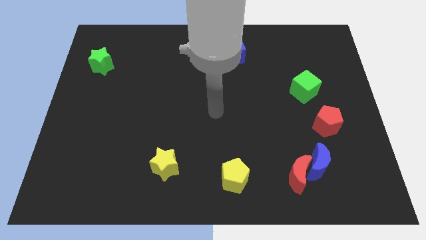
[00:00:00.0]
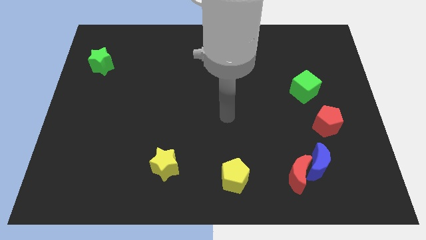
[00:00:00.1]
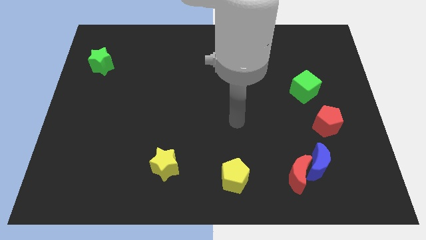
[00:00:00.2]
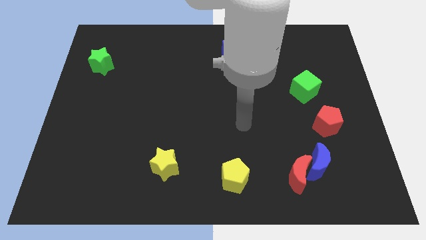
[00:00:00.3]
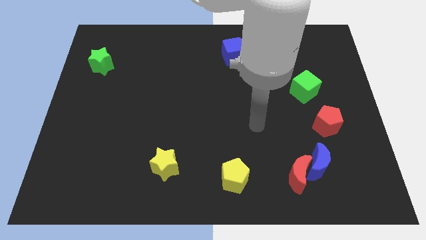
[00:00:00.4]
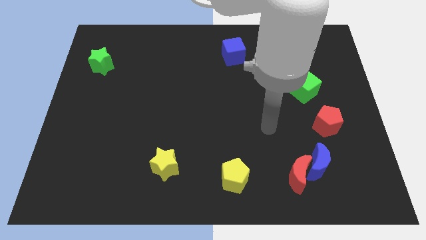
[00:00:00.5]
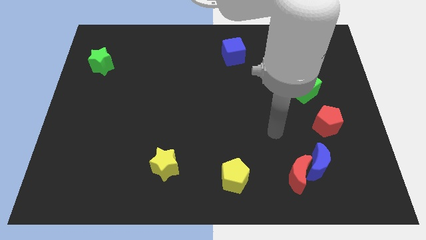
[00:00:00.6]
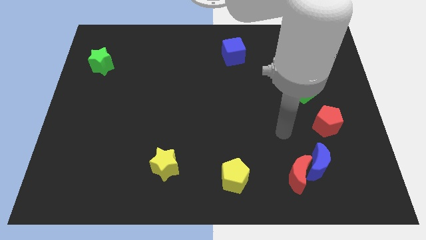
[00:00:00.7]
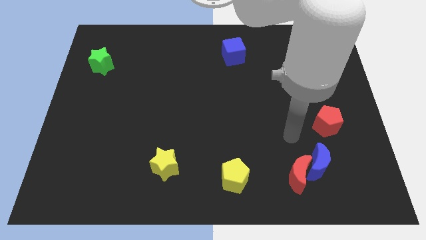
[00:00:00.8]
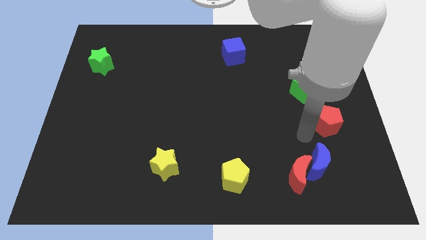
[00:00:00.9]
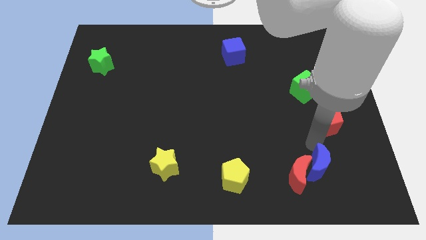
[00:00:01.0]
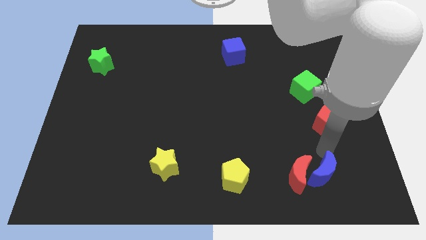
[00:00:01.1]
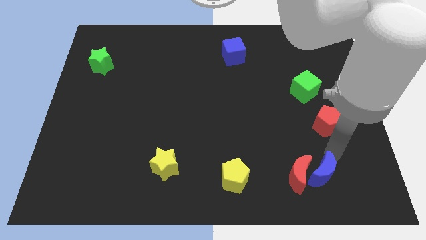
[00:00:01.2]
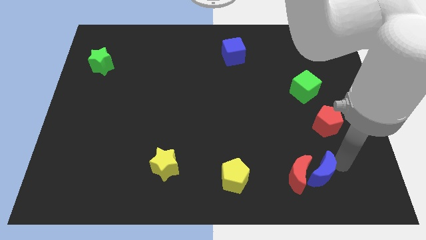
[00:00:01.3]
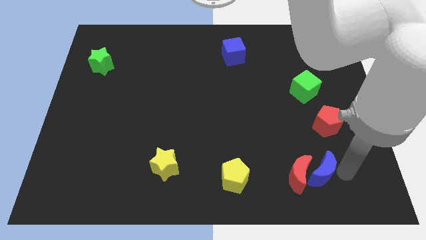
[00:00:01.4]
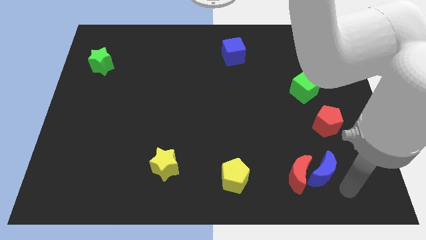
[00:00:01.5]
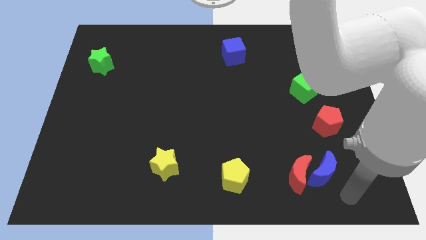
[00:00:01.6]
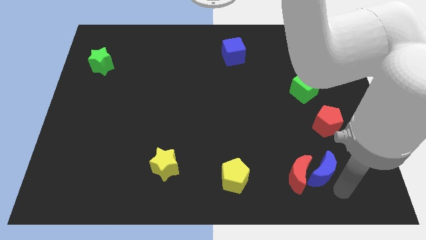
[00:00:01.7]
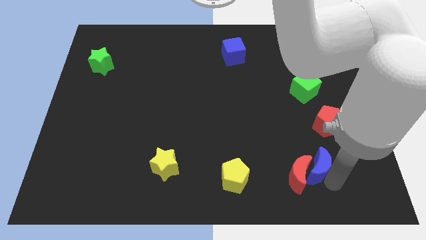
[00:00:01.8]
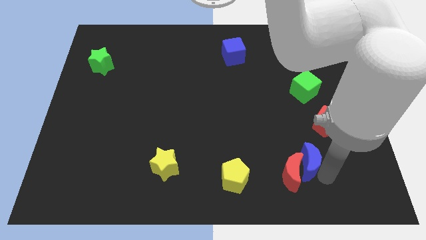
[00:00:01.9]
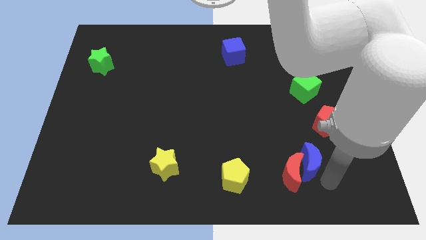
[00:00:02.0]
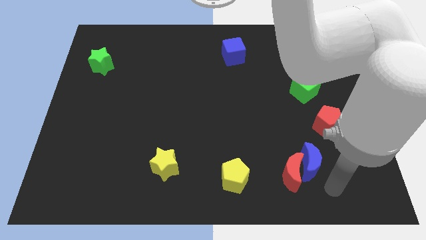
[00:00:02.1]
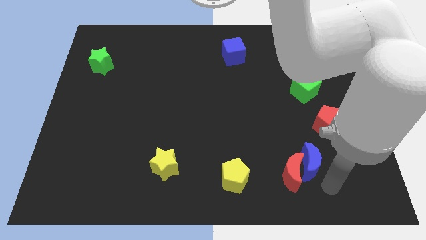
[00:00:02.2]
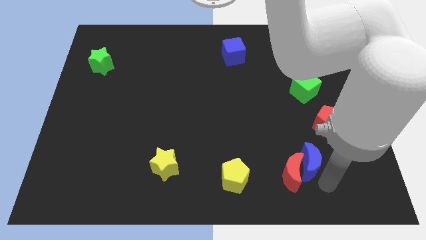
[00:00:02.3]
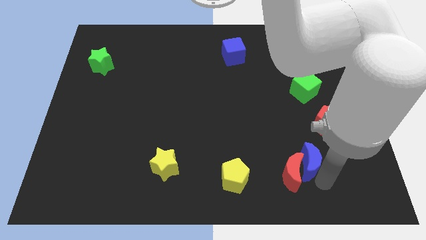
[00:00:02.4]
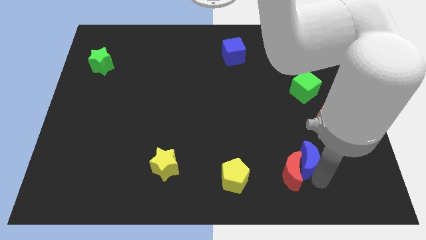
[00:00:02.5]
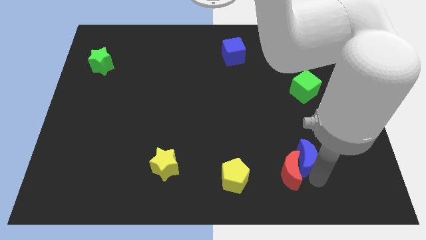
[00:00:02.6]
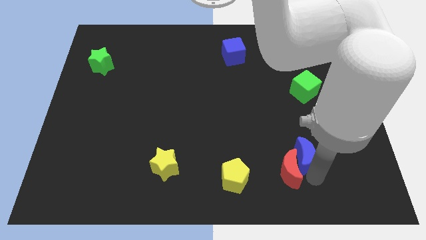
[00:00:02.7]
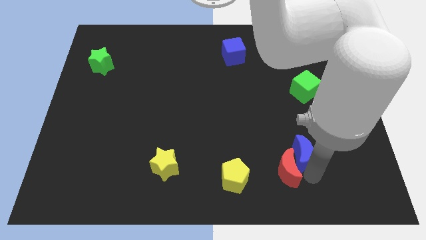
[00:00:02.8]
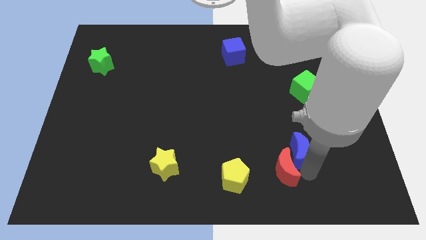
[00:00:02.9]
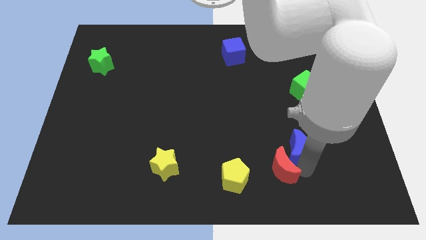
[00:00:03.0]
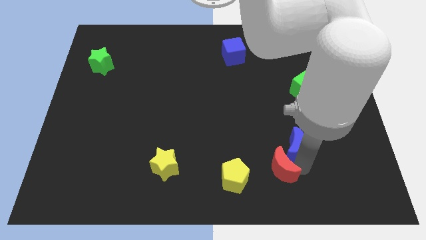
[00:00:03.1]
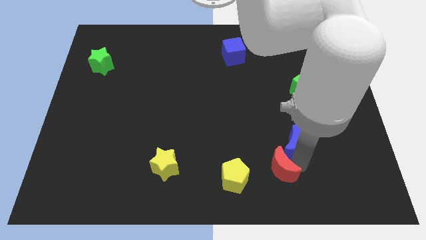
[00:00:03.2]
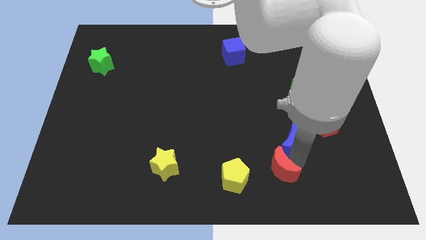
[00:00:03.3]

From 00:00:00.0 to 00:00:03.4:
slightly move the blue moon up and then left

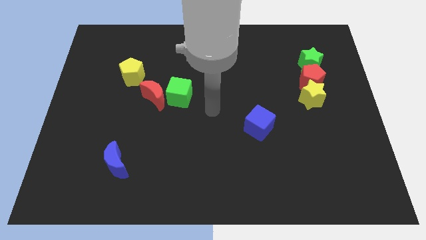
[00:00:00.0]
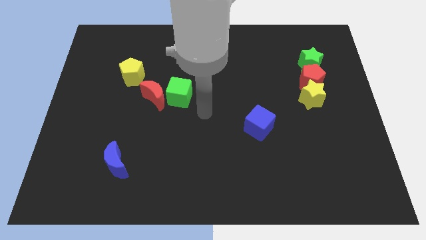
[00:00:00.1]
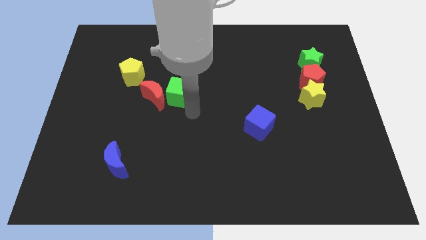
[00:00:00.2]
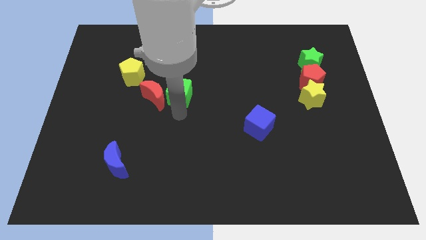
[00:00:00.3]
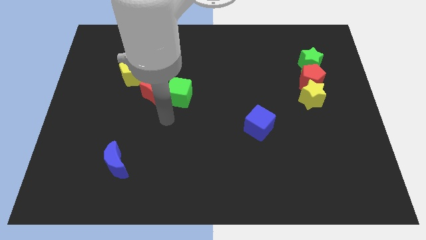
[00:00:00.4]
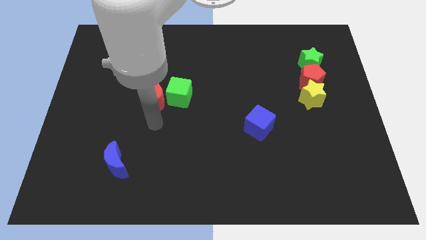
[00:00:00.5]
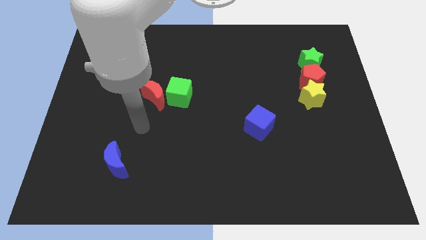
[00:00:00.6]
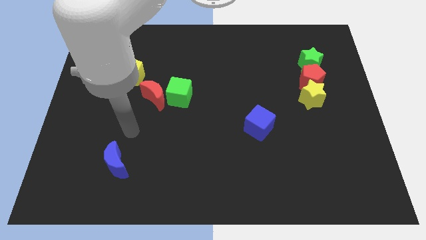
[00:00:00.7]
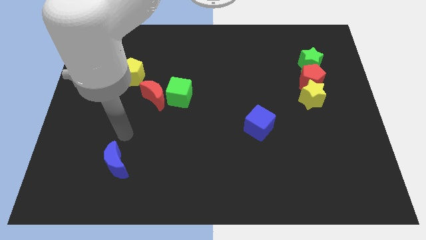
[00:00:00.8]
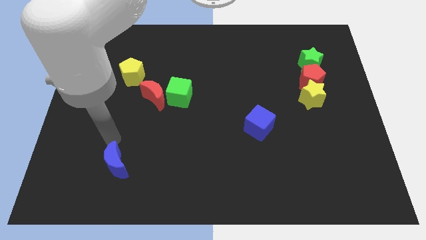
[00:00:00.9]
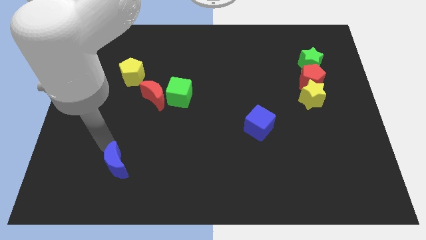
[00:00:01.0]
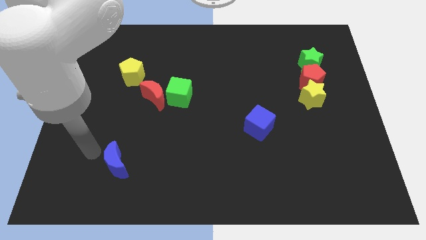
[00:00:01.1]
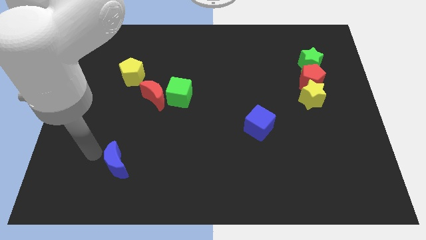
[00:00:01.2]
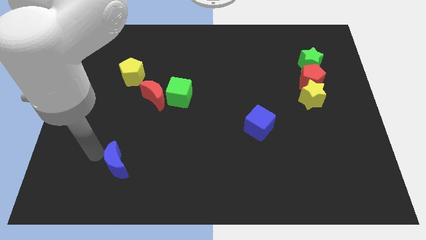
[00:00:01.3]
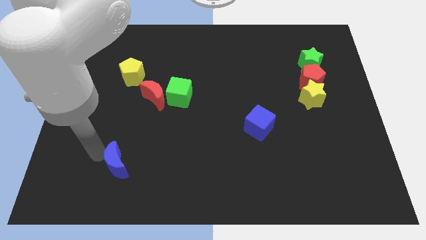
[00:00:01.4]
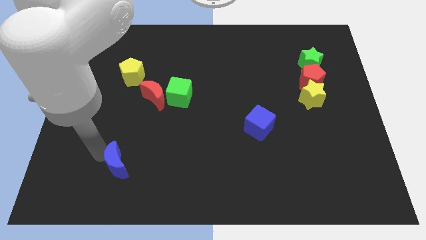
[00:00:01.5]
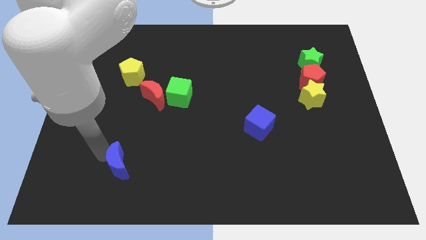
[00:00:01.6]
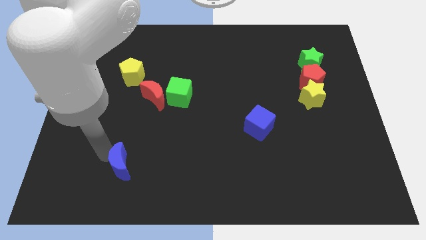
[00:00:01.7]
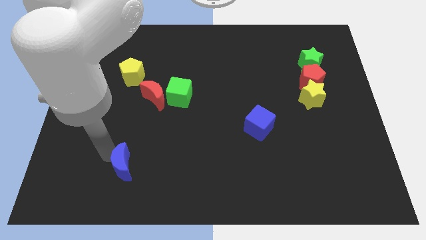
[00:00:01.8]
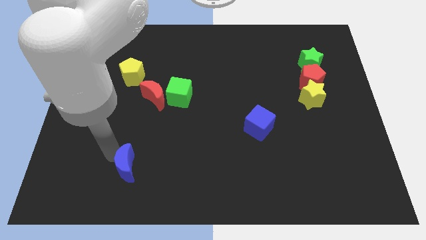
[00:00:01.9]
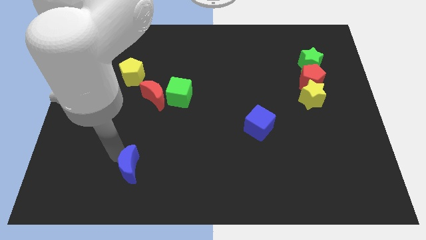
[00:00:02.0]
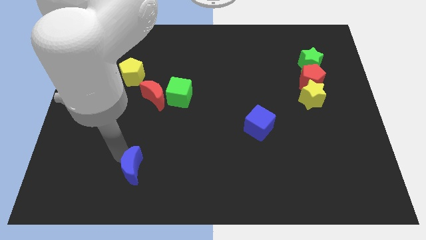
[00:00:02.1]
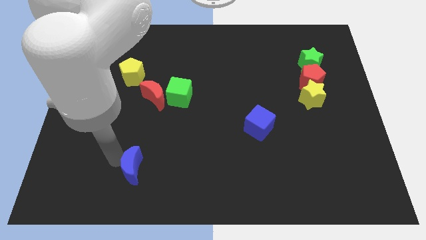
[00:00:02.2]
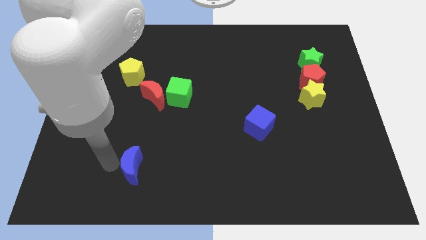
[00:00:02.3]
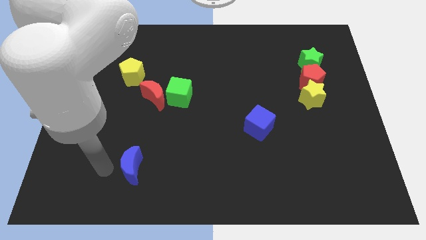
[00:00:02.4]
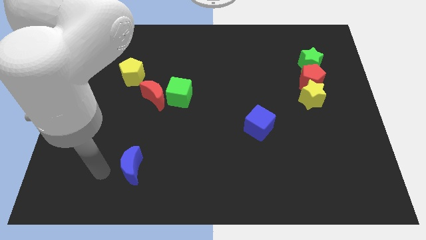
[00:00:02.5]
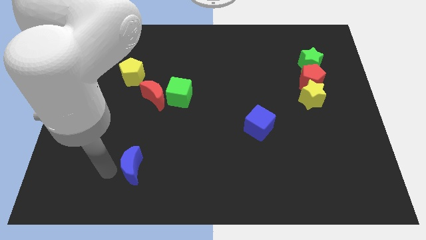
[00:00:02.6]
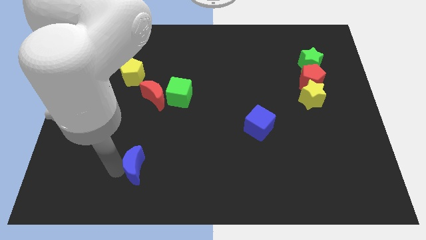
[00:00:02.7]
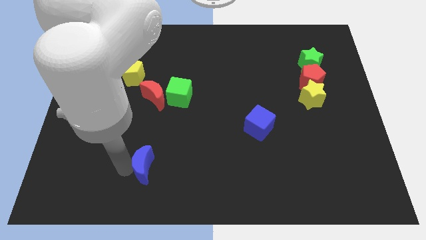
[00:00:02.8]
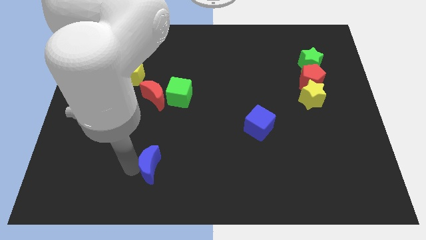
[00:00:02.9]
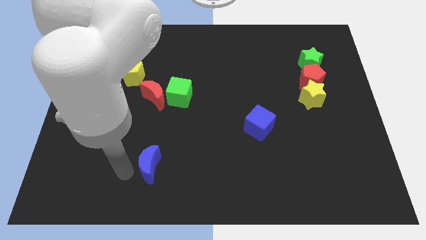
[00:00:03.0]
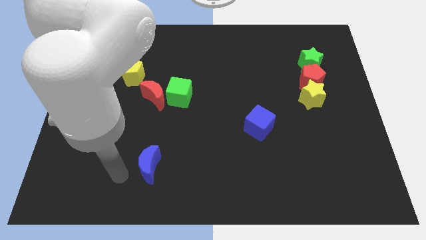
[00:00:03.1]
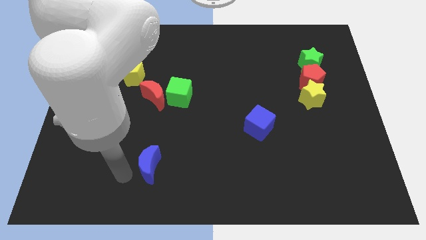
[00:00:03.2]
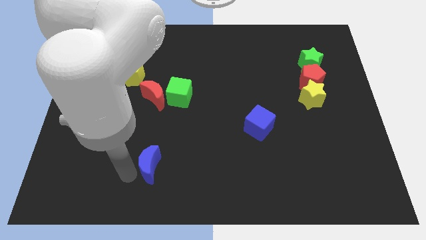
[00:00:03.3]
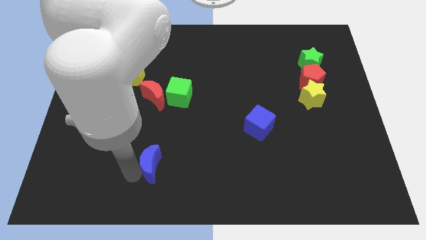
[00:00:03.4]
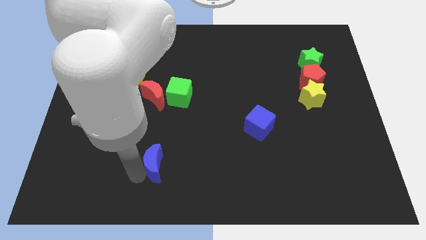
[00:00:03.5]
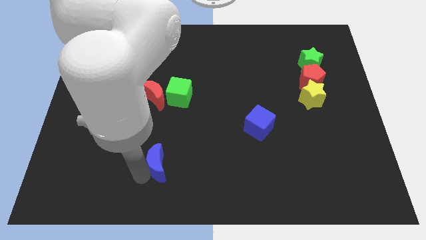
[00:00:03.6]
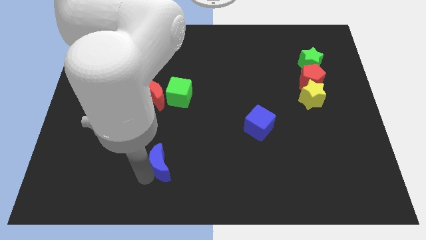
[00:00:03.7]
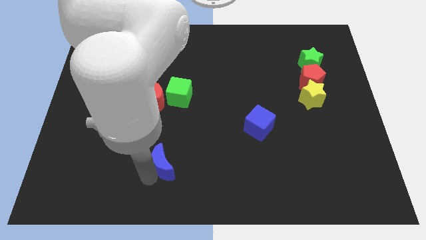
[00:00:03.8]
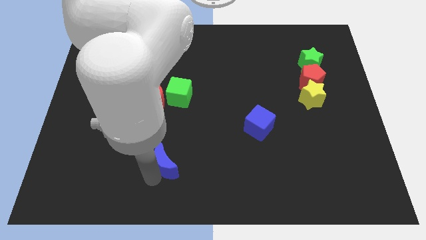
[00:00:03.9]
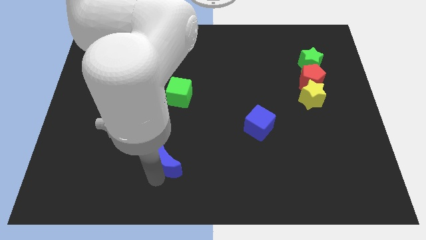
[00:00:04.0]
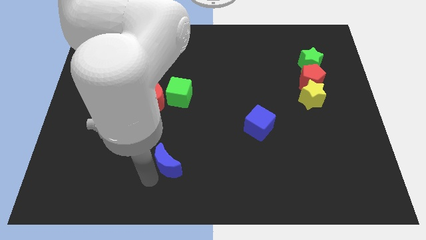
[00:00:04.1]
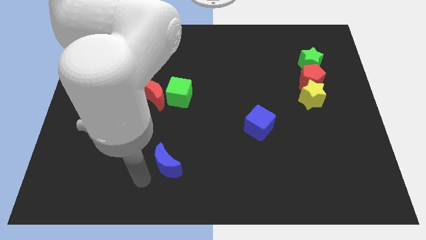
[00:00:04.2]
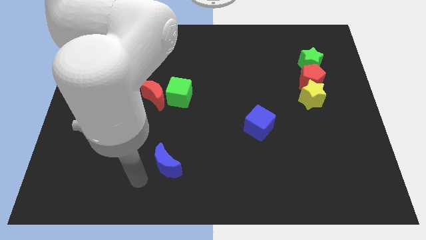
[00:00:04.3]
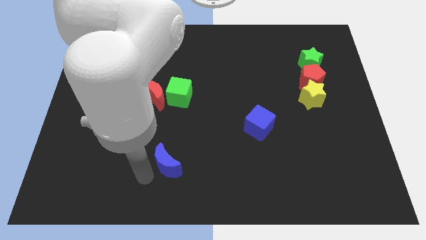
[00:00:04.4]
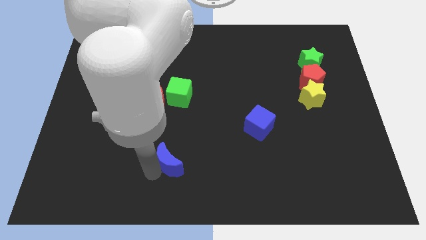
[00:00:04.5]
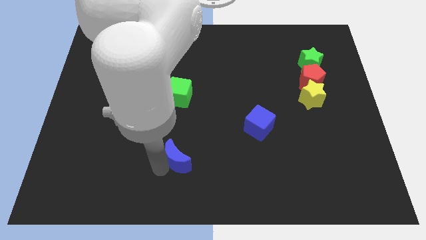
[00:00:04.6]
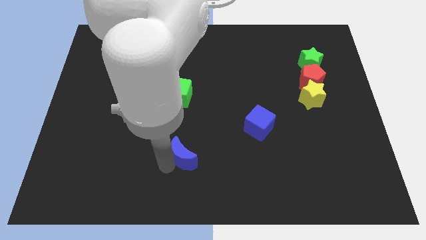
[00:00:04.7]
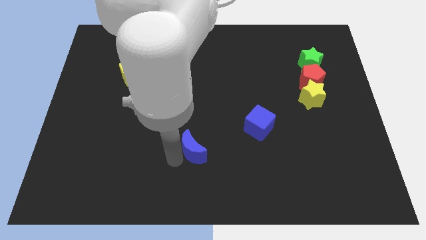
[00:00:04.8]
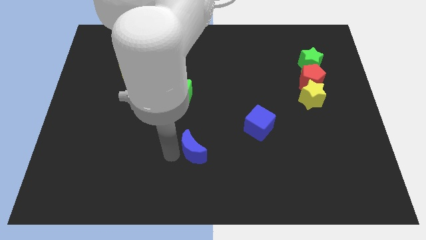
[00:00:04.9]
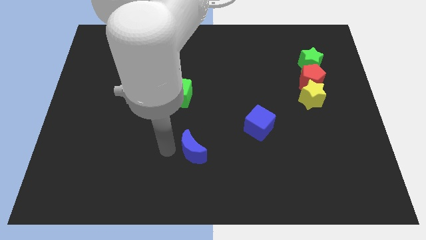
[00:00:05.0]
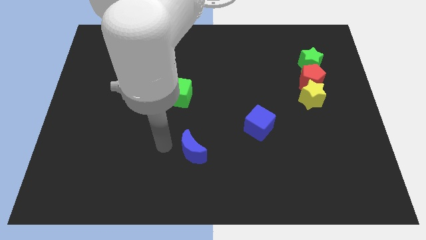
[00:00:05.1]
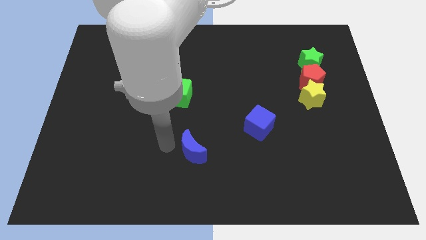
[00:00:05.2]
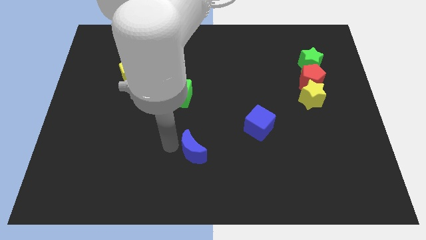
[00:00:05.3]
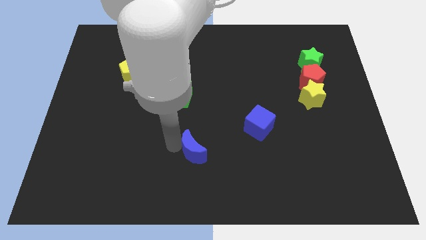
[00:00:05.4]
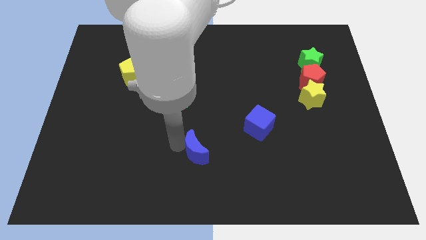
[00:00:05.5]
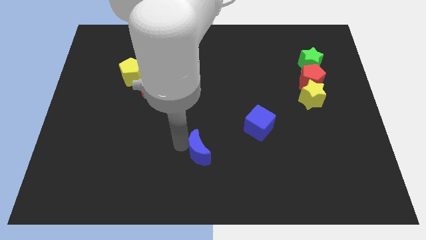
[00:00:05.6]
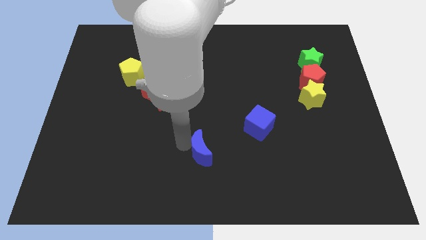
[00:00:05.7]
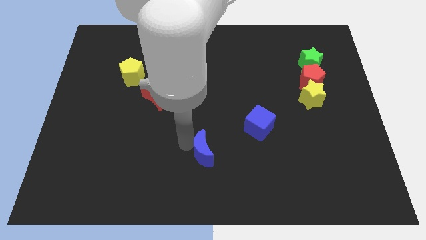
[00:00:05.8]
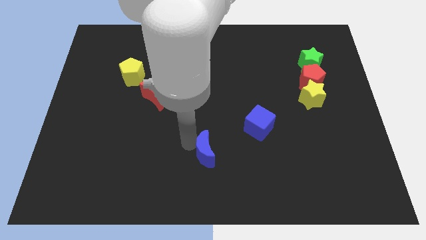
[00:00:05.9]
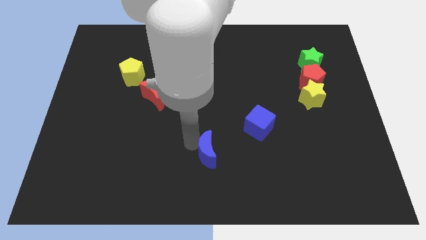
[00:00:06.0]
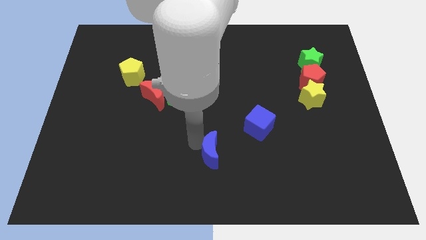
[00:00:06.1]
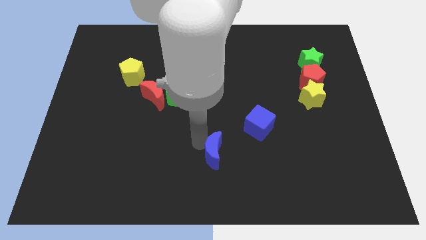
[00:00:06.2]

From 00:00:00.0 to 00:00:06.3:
push the blue moon to the right
